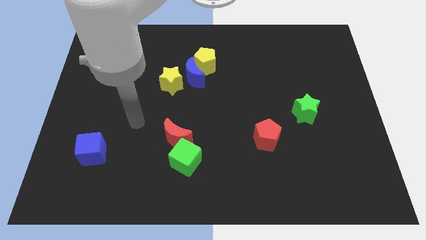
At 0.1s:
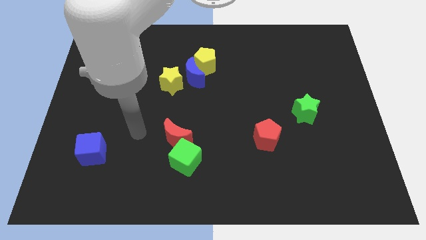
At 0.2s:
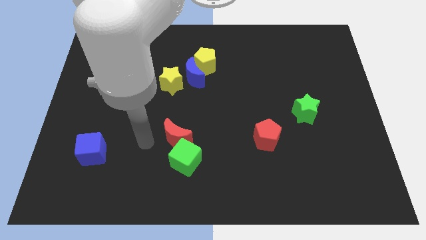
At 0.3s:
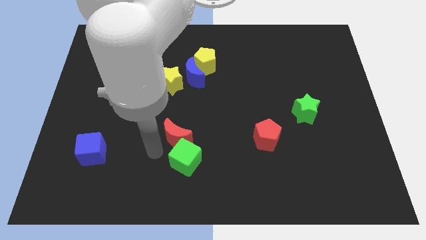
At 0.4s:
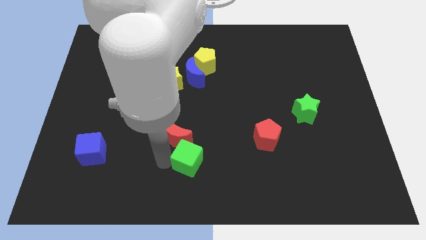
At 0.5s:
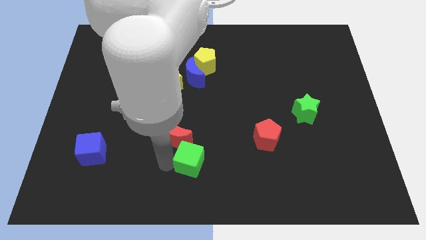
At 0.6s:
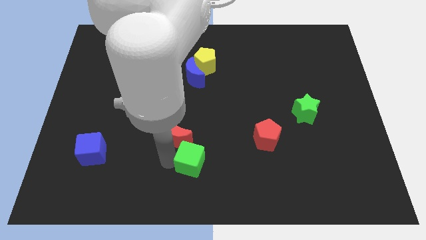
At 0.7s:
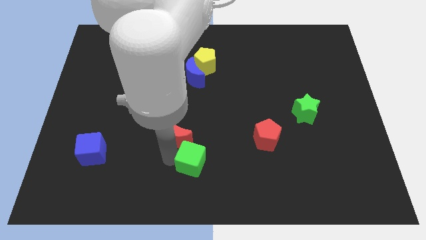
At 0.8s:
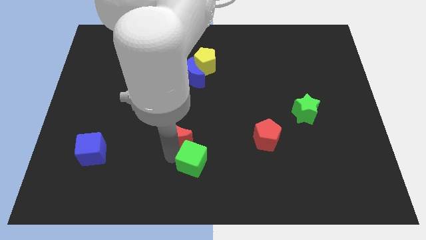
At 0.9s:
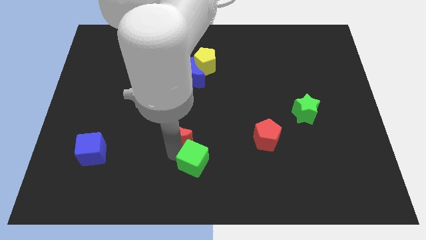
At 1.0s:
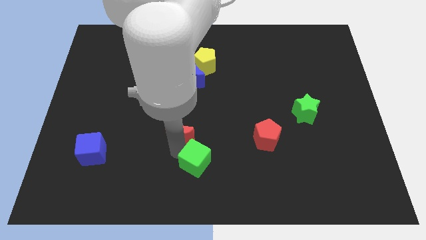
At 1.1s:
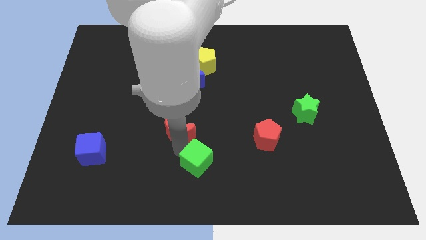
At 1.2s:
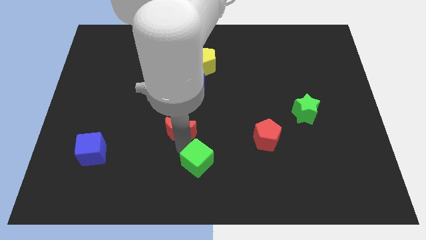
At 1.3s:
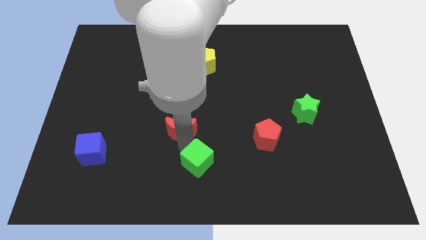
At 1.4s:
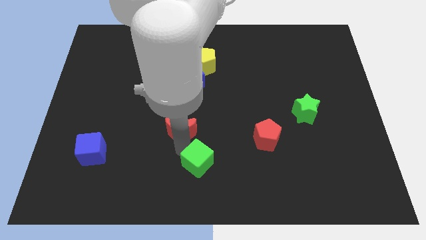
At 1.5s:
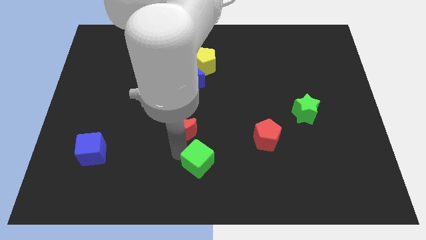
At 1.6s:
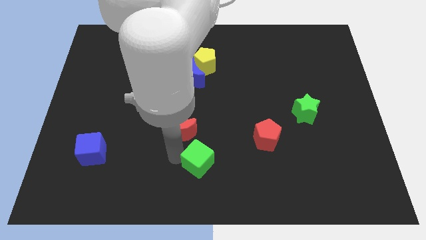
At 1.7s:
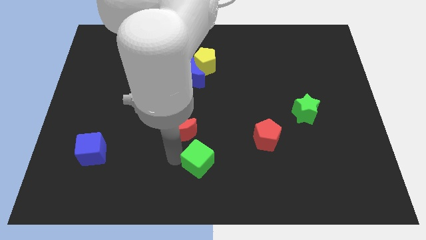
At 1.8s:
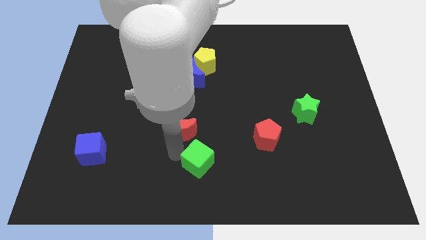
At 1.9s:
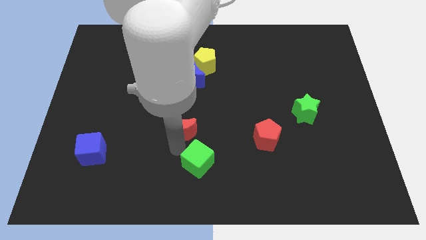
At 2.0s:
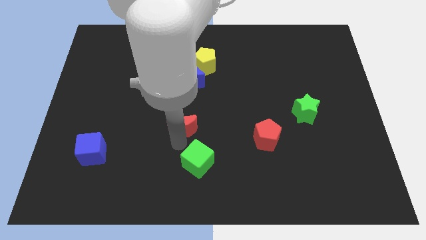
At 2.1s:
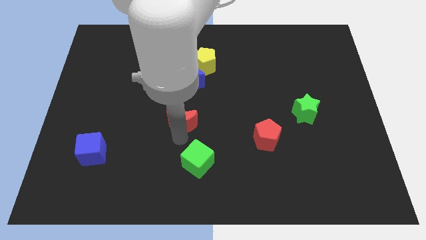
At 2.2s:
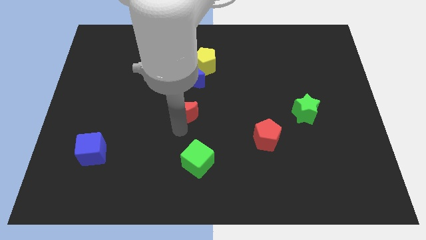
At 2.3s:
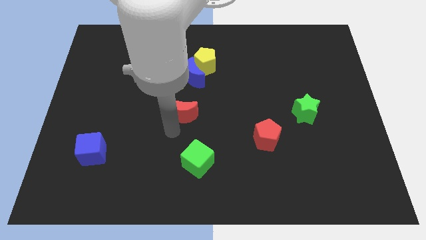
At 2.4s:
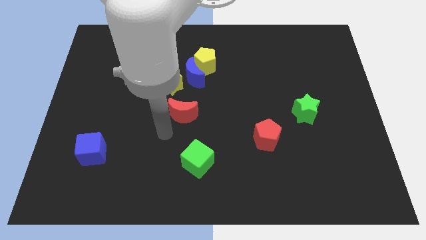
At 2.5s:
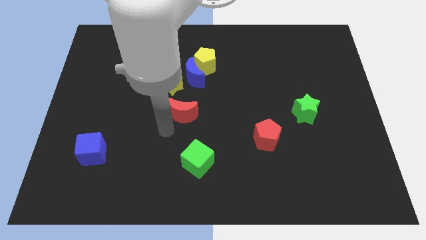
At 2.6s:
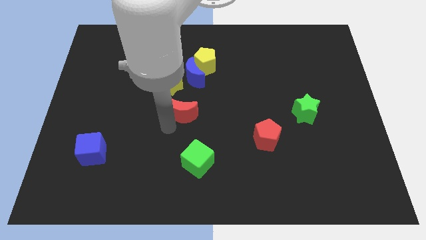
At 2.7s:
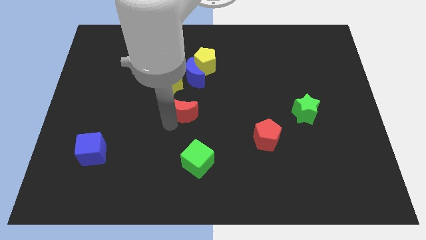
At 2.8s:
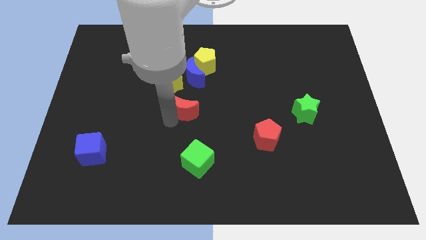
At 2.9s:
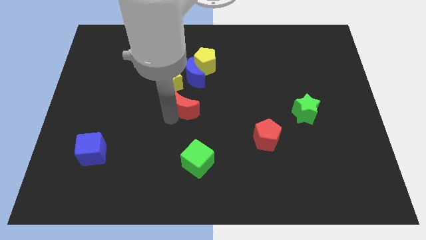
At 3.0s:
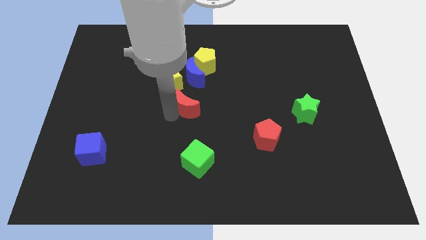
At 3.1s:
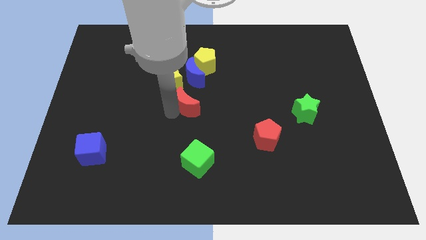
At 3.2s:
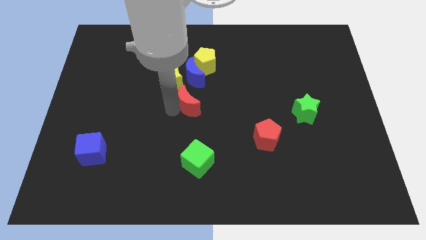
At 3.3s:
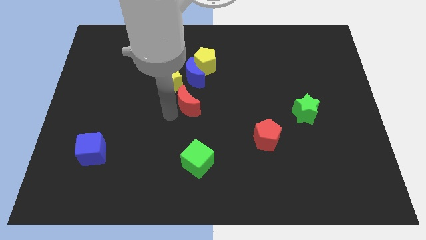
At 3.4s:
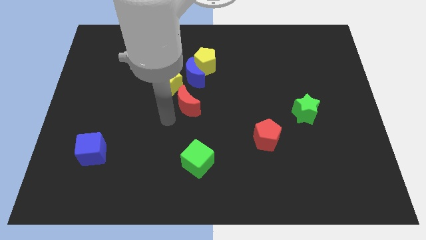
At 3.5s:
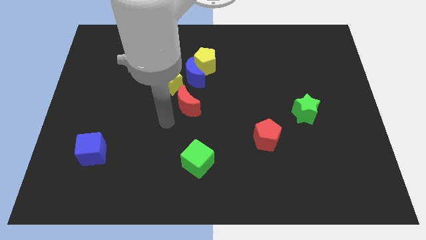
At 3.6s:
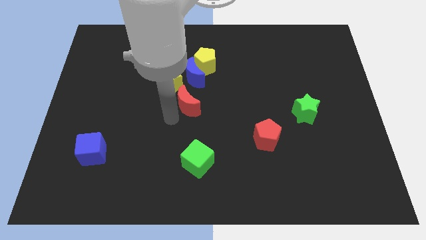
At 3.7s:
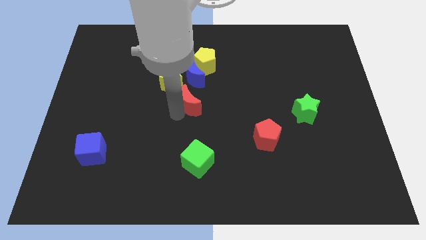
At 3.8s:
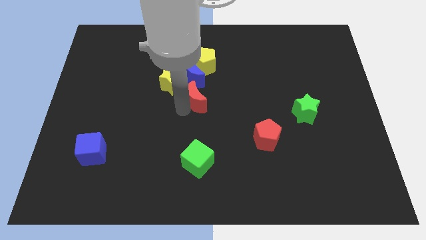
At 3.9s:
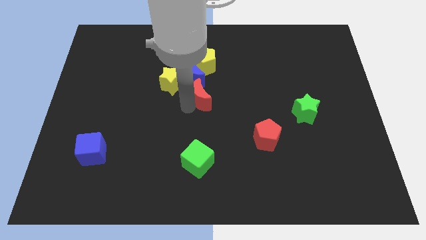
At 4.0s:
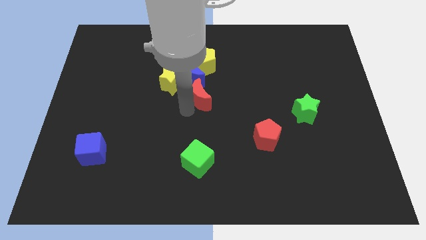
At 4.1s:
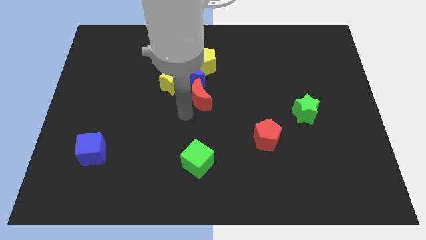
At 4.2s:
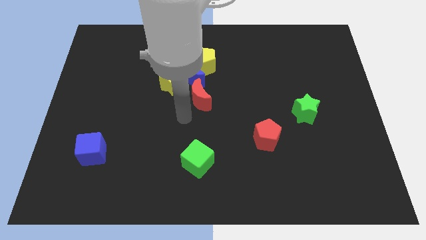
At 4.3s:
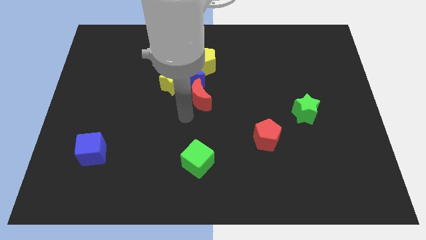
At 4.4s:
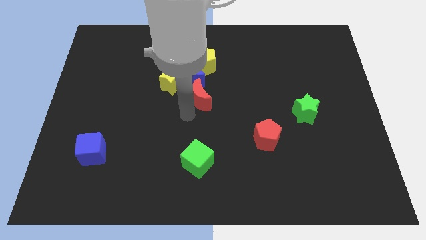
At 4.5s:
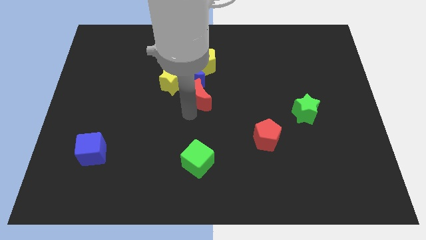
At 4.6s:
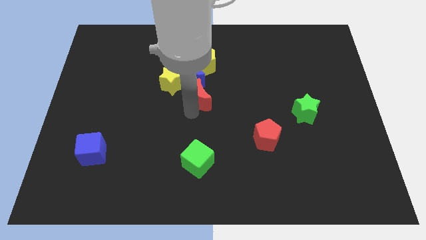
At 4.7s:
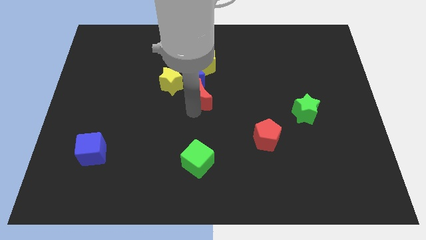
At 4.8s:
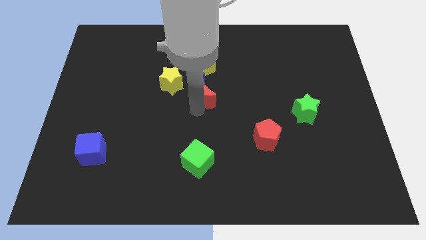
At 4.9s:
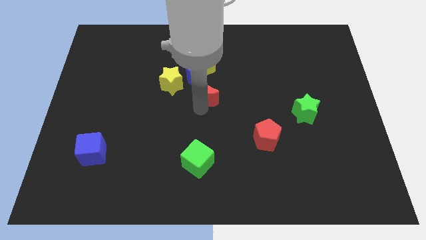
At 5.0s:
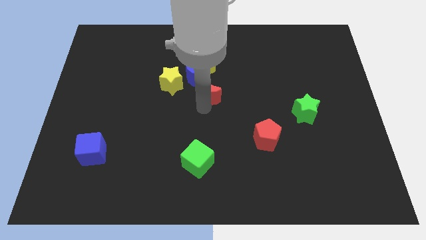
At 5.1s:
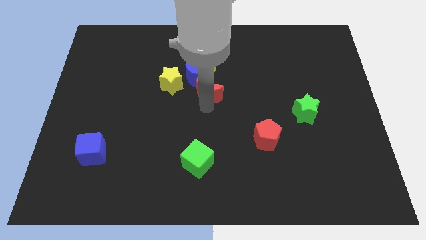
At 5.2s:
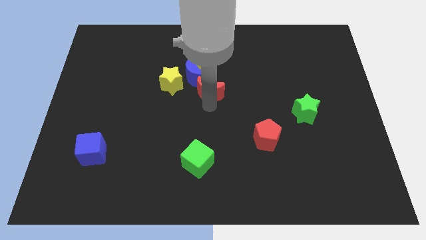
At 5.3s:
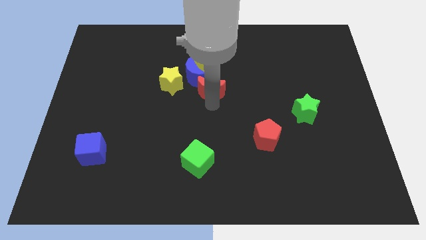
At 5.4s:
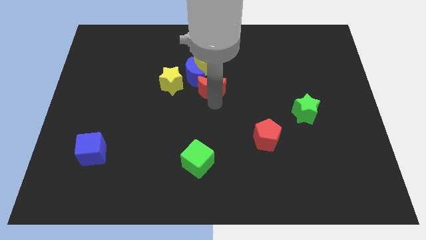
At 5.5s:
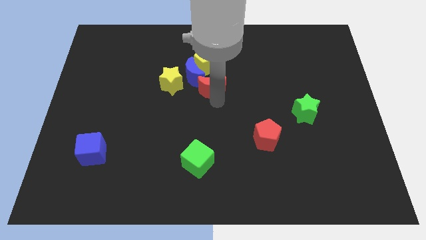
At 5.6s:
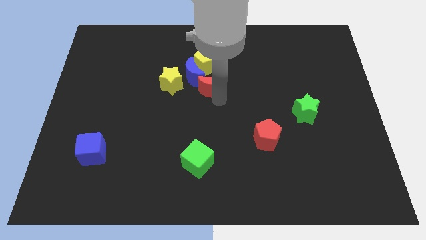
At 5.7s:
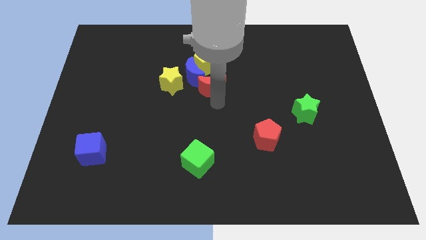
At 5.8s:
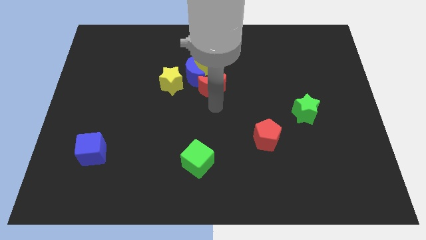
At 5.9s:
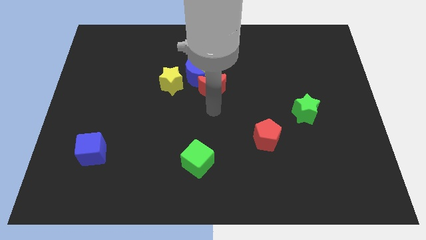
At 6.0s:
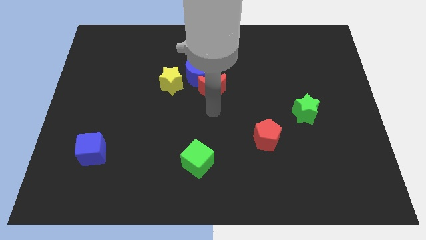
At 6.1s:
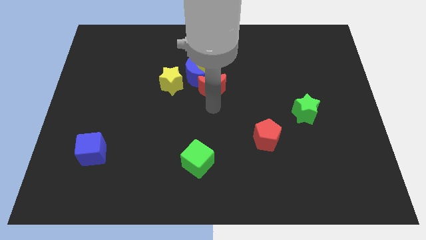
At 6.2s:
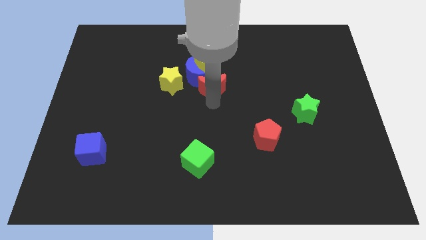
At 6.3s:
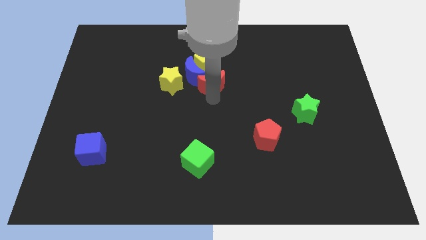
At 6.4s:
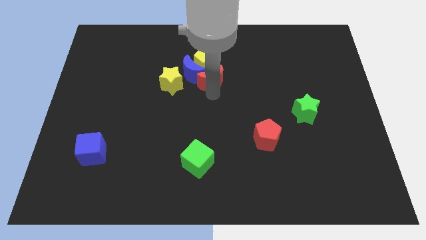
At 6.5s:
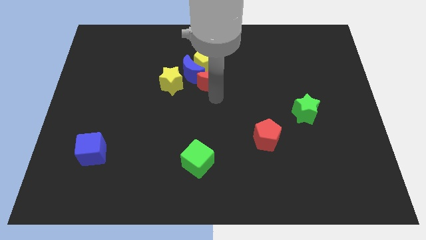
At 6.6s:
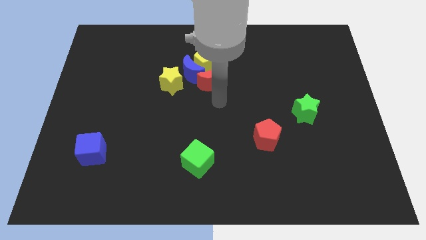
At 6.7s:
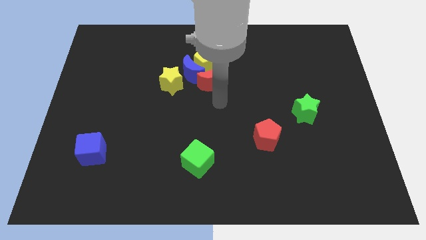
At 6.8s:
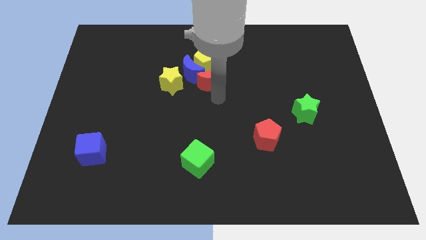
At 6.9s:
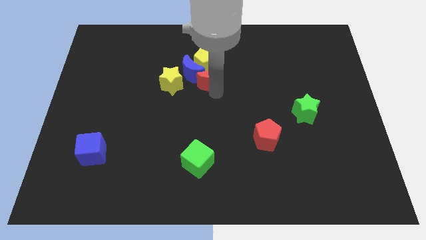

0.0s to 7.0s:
move the red moon next to the yellow pentagon
